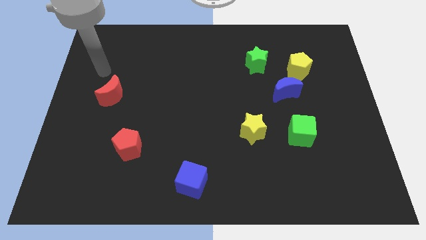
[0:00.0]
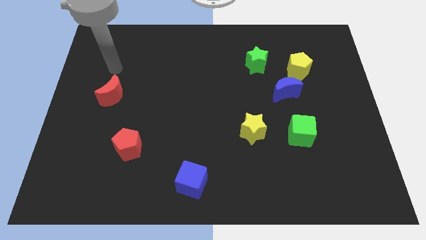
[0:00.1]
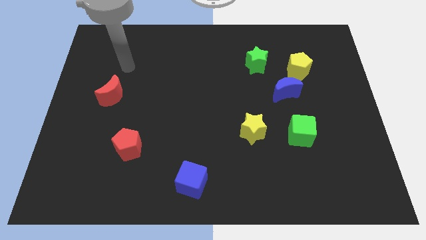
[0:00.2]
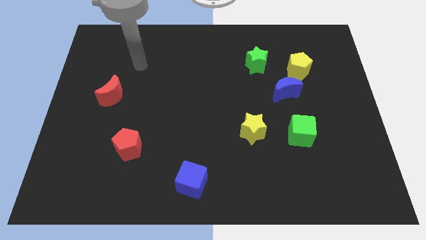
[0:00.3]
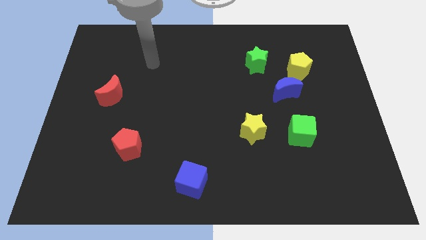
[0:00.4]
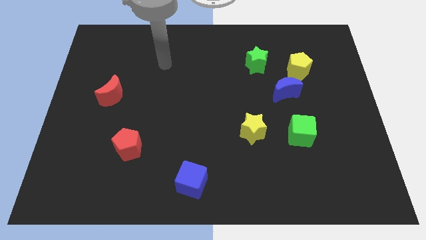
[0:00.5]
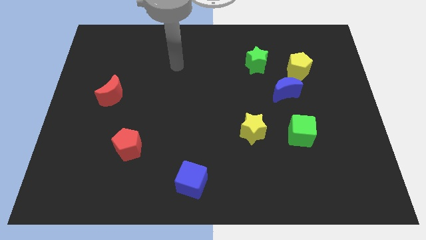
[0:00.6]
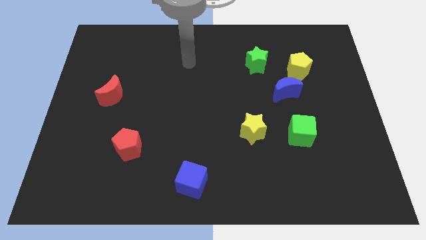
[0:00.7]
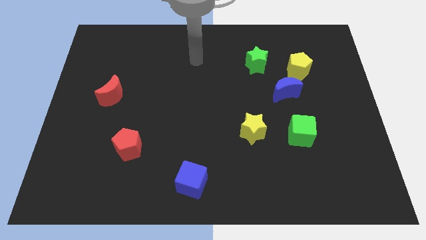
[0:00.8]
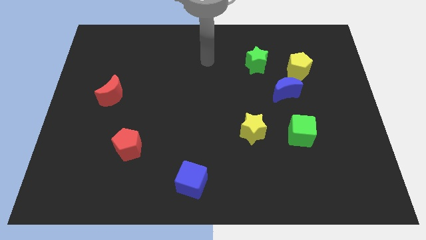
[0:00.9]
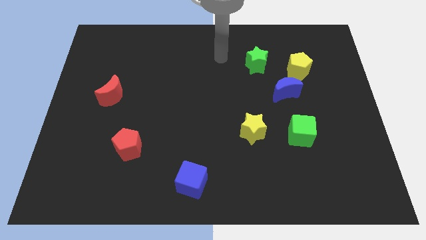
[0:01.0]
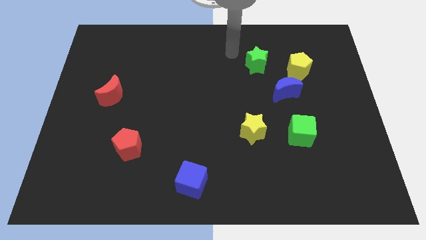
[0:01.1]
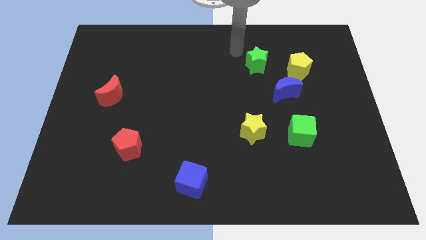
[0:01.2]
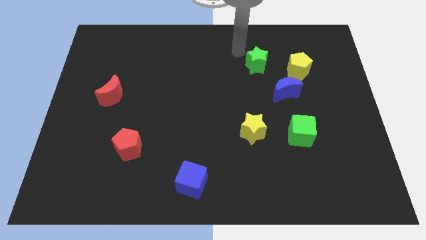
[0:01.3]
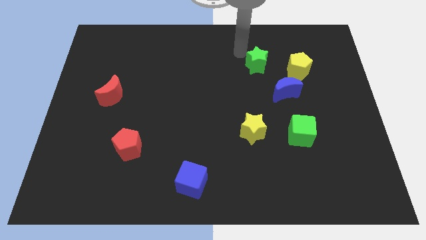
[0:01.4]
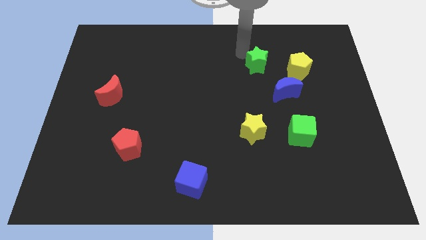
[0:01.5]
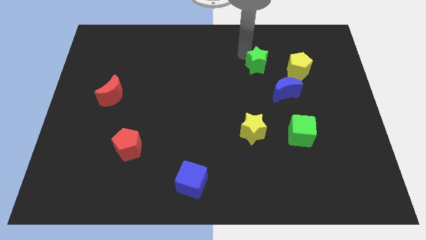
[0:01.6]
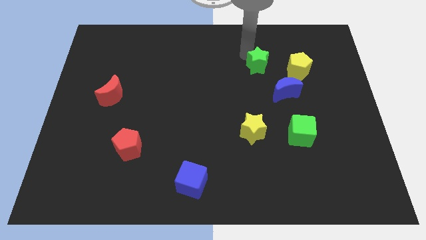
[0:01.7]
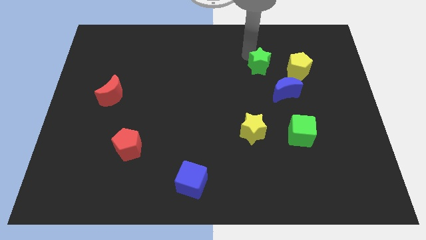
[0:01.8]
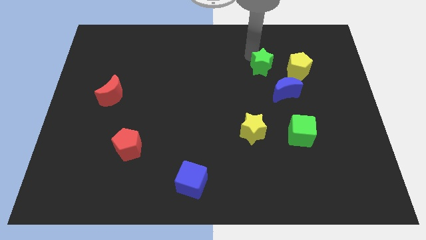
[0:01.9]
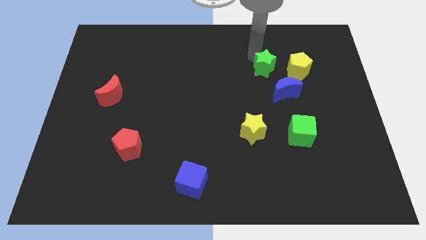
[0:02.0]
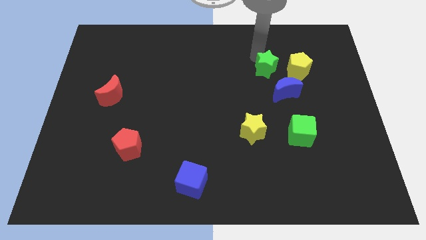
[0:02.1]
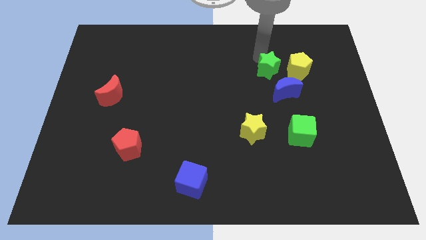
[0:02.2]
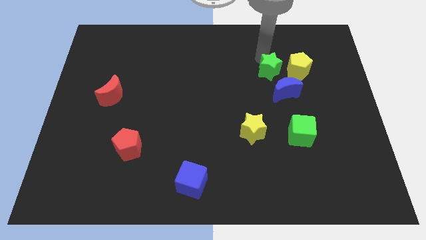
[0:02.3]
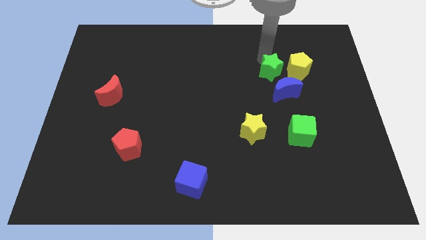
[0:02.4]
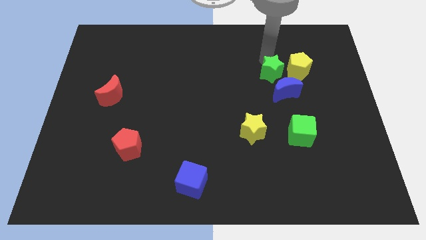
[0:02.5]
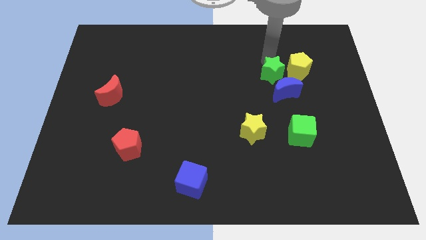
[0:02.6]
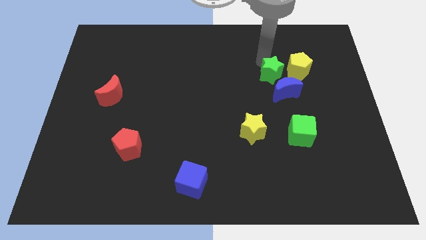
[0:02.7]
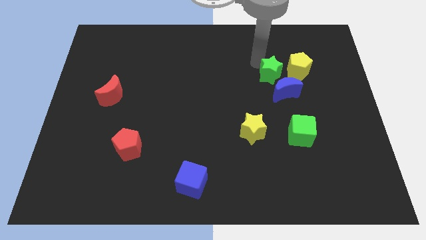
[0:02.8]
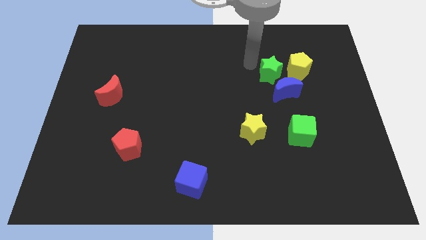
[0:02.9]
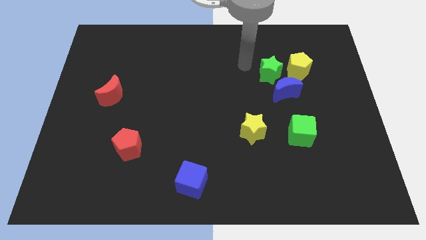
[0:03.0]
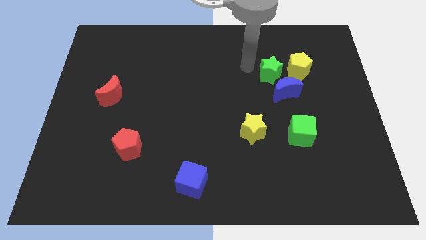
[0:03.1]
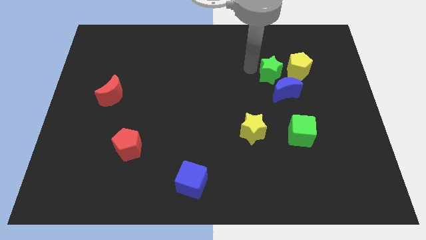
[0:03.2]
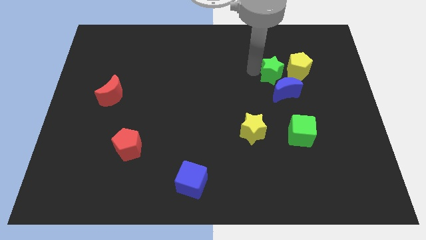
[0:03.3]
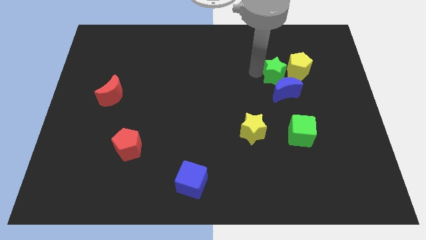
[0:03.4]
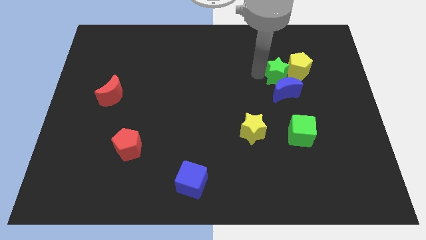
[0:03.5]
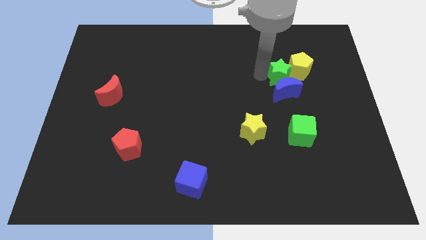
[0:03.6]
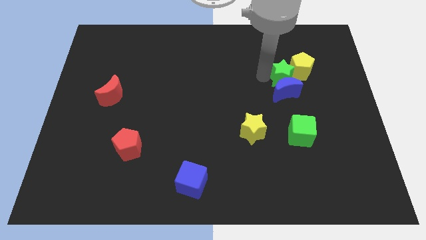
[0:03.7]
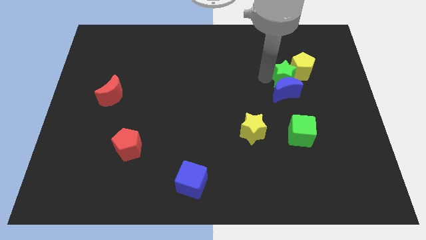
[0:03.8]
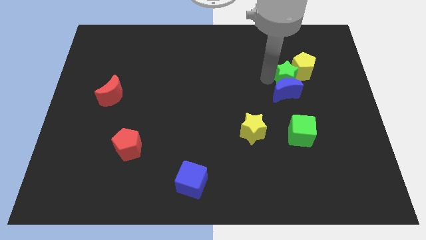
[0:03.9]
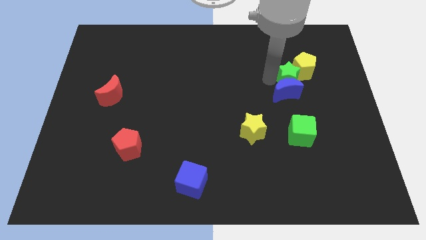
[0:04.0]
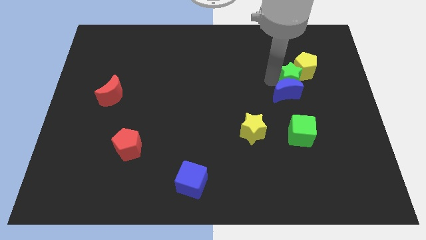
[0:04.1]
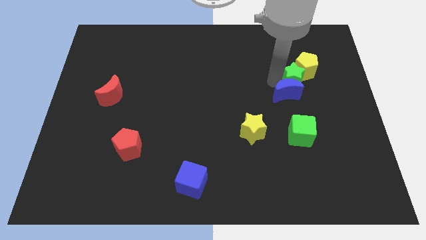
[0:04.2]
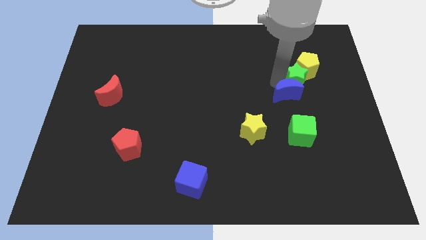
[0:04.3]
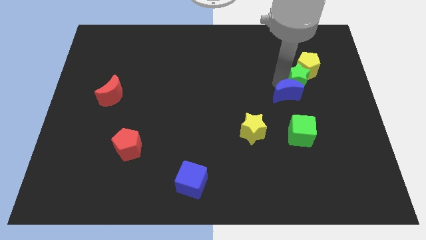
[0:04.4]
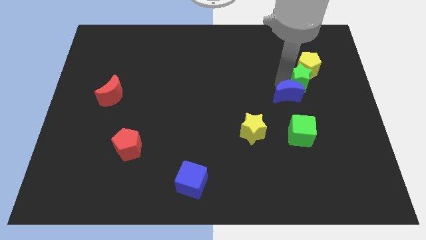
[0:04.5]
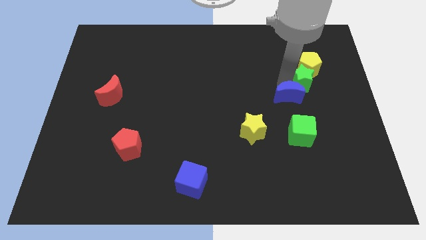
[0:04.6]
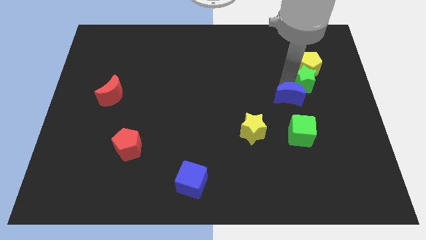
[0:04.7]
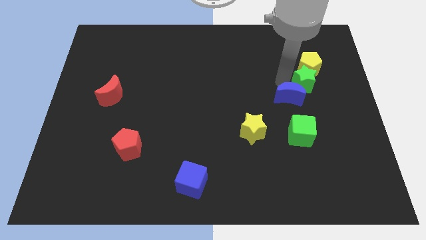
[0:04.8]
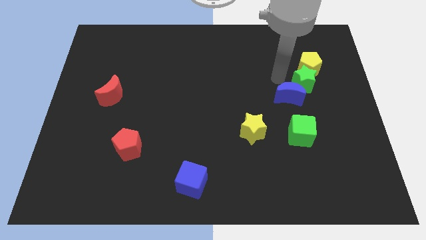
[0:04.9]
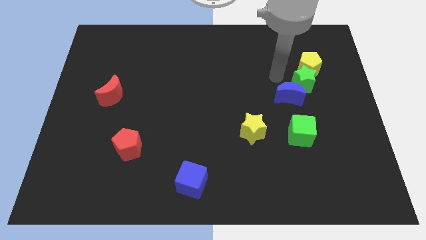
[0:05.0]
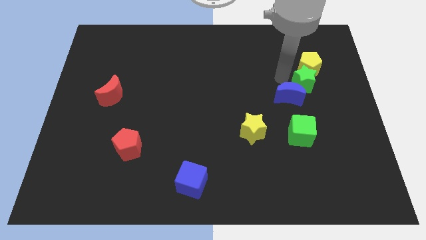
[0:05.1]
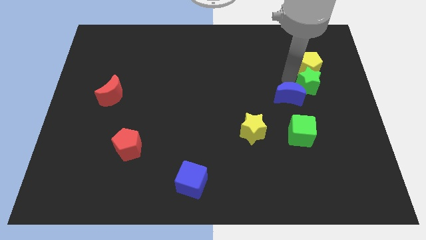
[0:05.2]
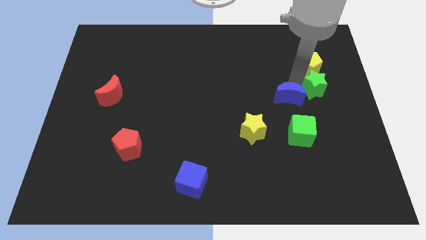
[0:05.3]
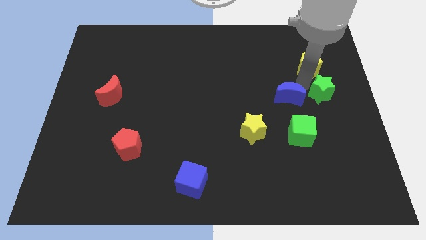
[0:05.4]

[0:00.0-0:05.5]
slide the green star to the right side

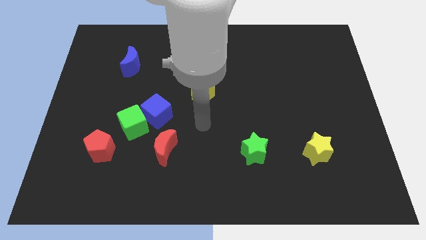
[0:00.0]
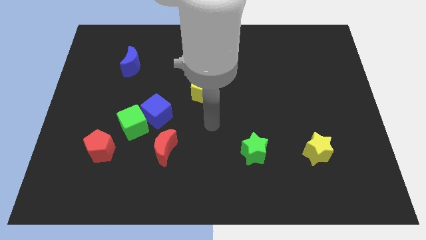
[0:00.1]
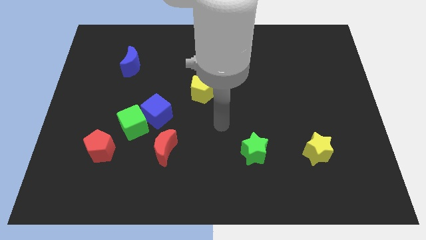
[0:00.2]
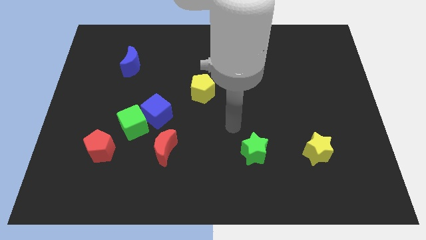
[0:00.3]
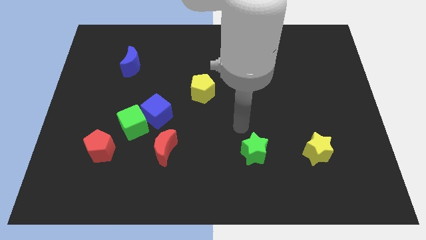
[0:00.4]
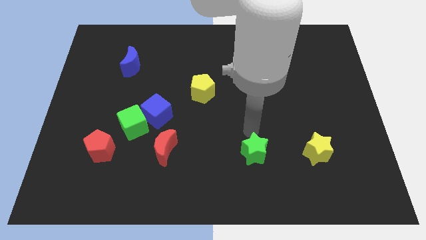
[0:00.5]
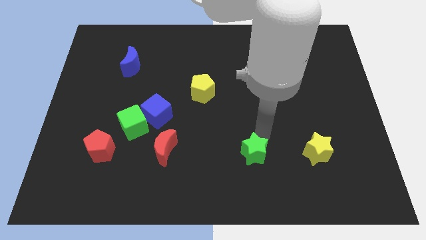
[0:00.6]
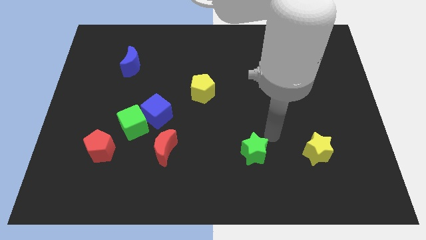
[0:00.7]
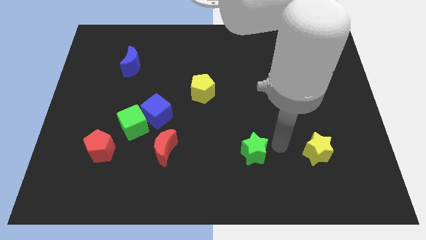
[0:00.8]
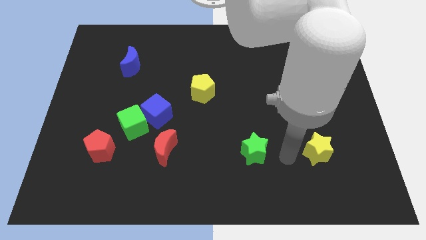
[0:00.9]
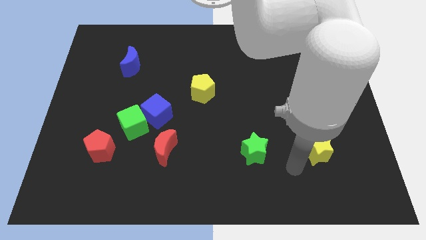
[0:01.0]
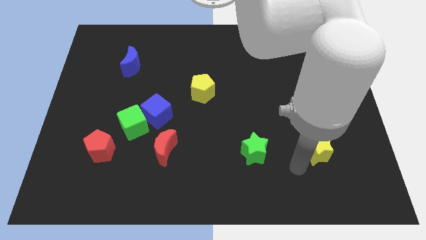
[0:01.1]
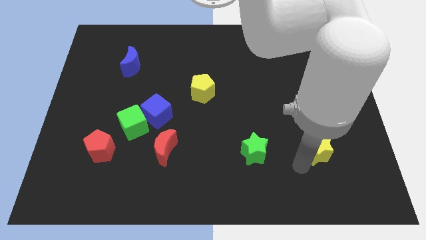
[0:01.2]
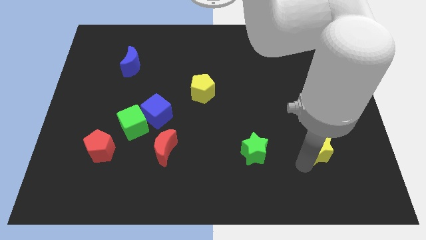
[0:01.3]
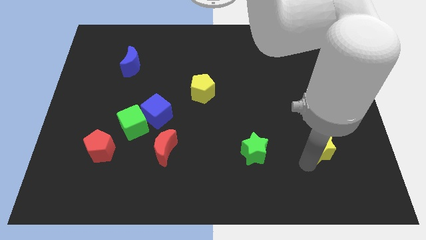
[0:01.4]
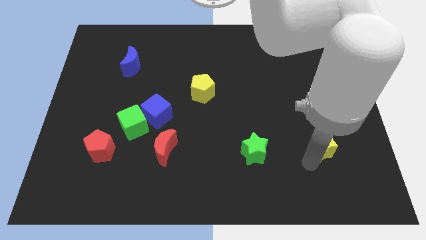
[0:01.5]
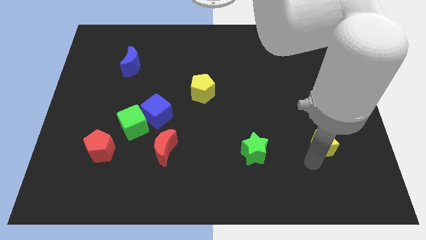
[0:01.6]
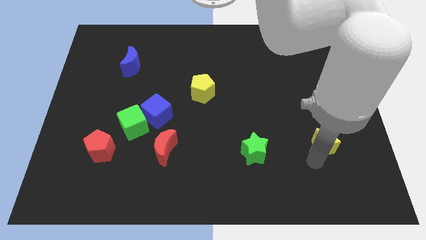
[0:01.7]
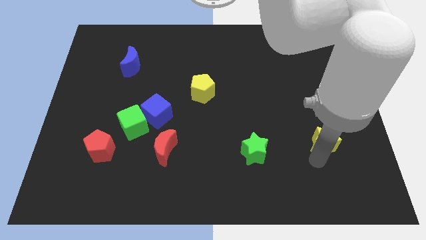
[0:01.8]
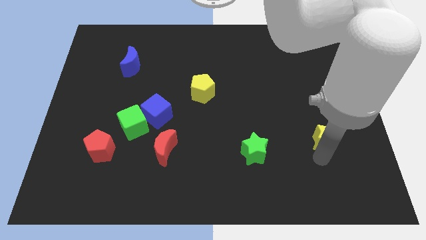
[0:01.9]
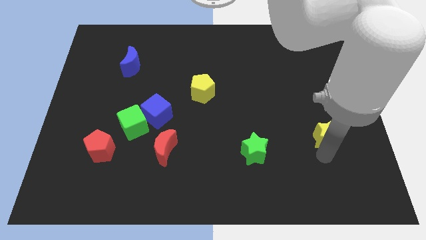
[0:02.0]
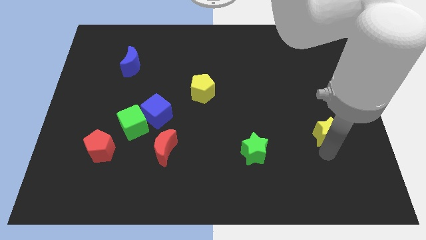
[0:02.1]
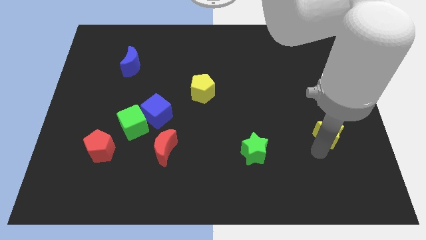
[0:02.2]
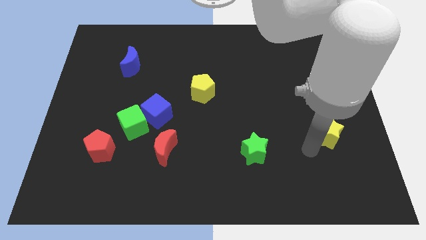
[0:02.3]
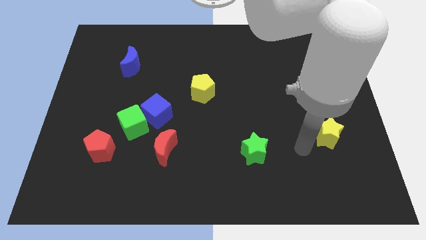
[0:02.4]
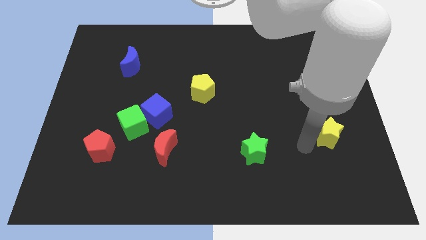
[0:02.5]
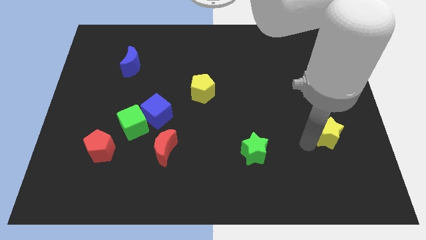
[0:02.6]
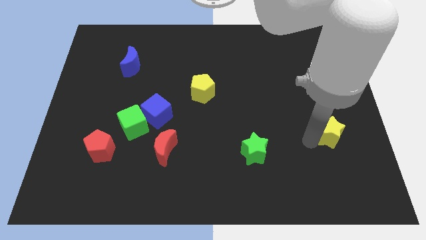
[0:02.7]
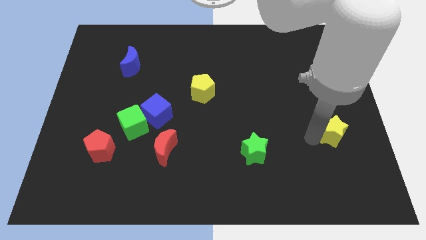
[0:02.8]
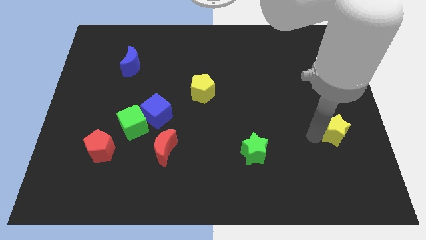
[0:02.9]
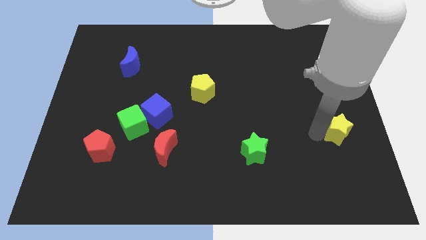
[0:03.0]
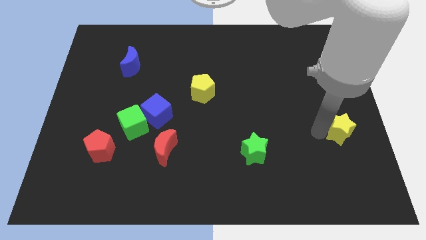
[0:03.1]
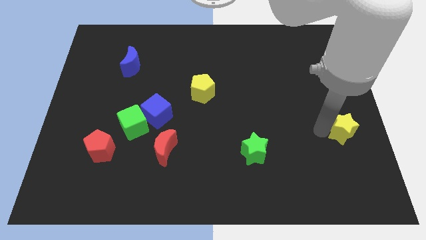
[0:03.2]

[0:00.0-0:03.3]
put the yellow star to the right side of the board
